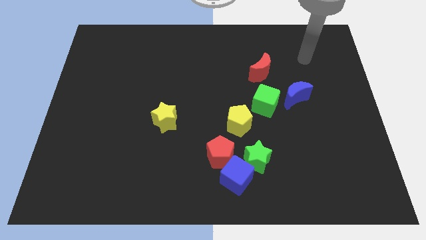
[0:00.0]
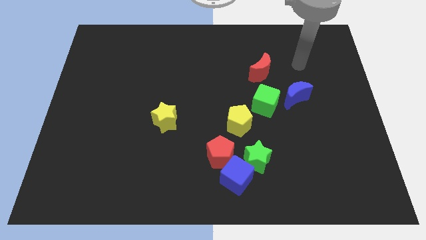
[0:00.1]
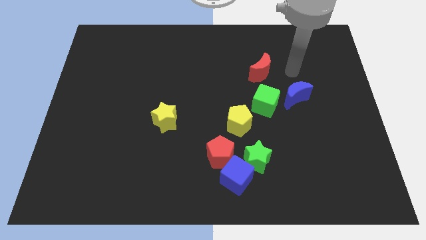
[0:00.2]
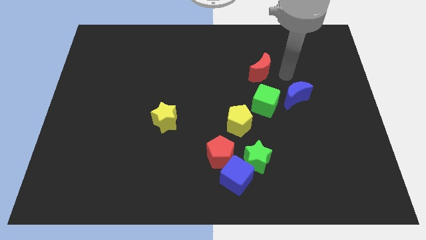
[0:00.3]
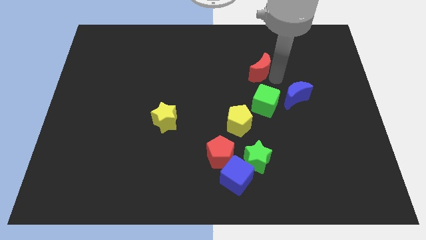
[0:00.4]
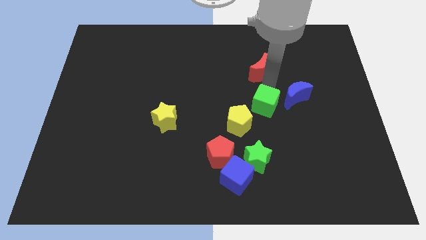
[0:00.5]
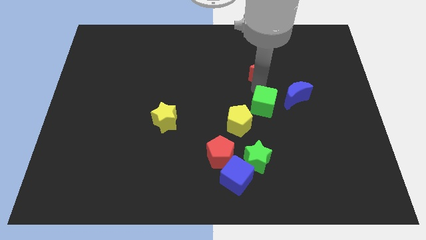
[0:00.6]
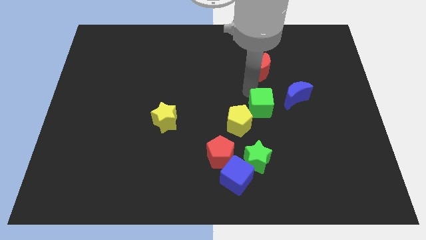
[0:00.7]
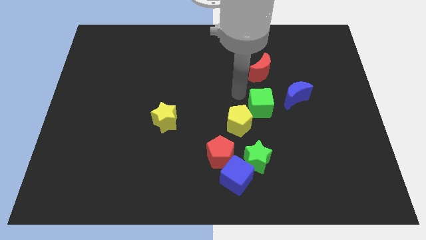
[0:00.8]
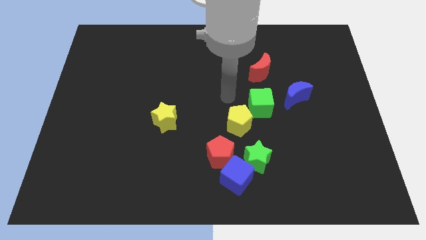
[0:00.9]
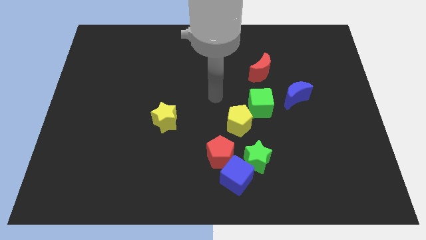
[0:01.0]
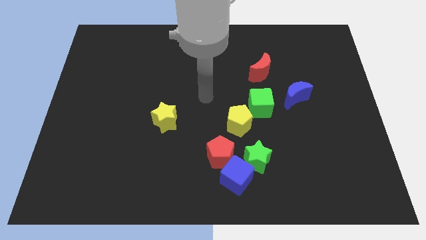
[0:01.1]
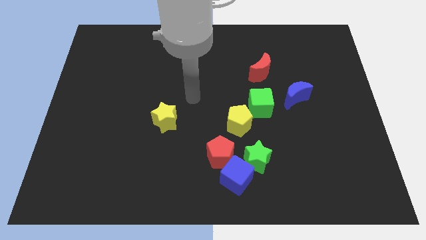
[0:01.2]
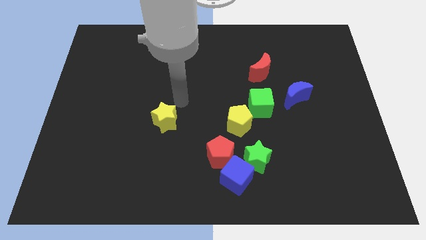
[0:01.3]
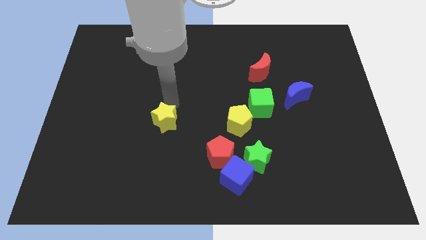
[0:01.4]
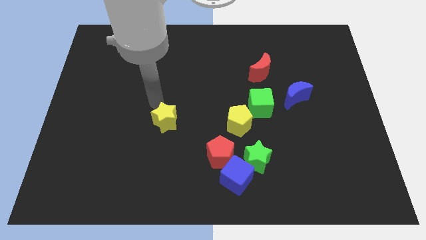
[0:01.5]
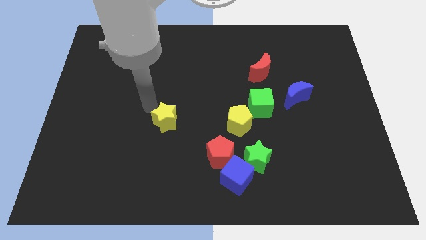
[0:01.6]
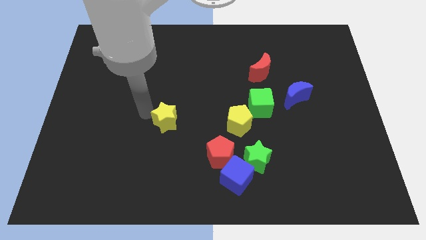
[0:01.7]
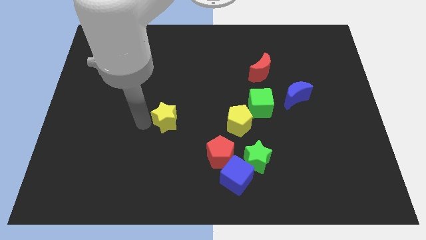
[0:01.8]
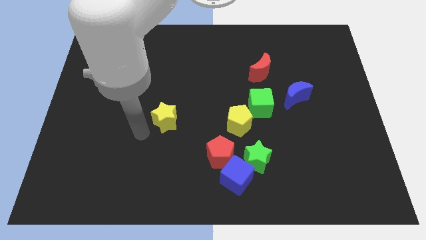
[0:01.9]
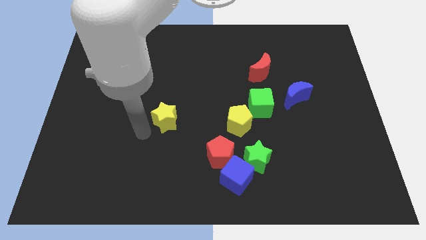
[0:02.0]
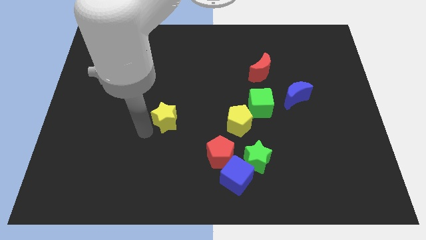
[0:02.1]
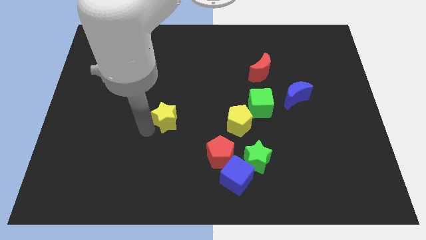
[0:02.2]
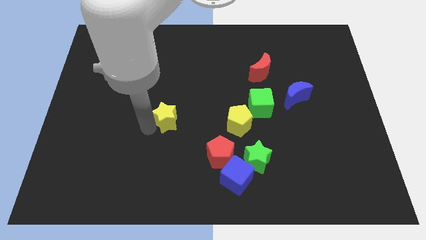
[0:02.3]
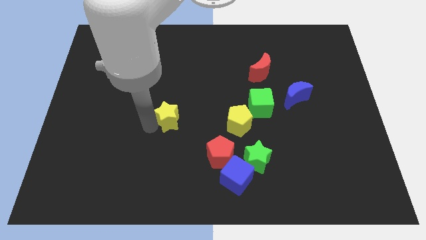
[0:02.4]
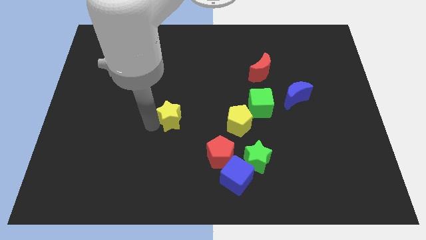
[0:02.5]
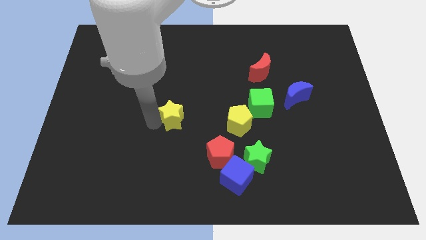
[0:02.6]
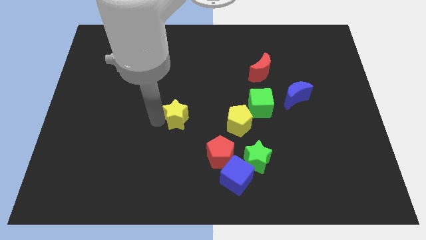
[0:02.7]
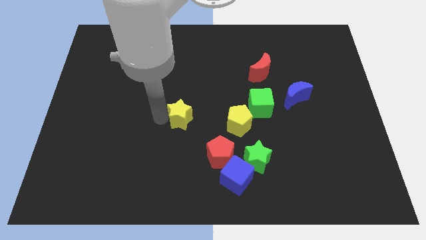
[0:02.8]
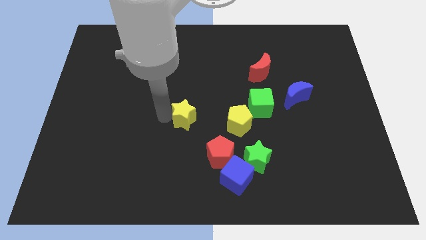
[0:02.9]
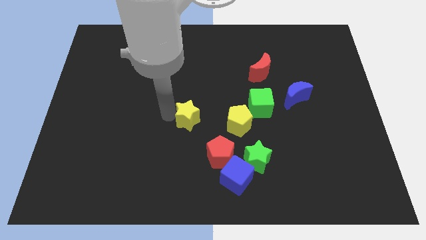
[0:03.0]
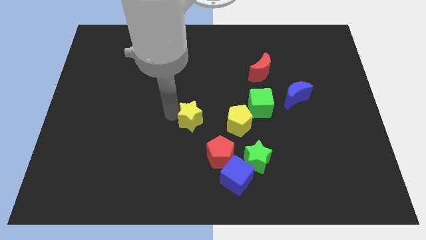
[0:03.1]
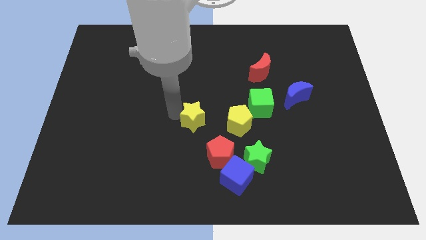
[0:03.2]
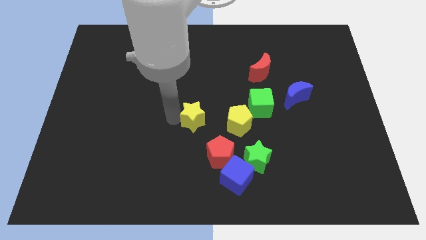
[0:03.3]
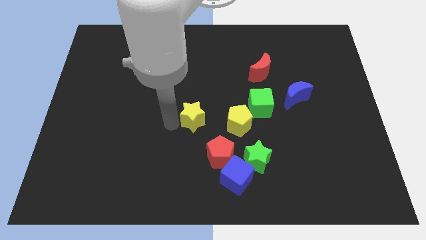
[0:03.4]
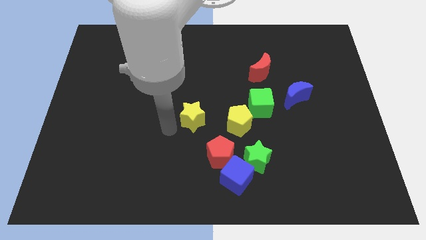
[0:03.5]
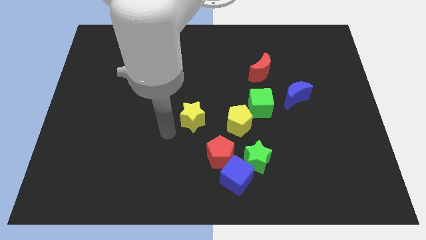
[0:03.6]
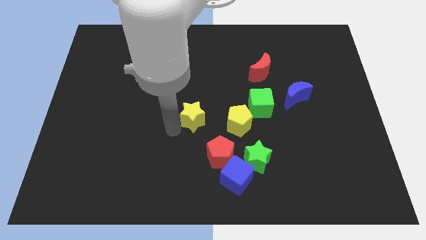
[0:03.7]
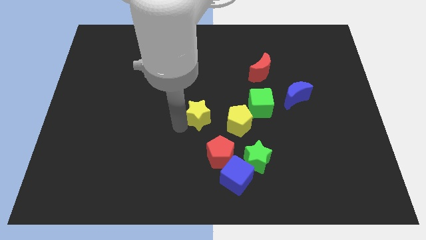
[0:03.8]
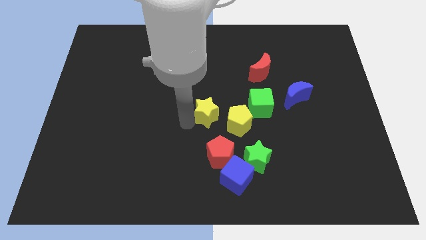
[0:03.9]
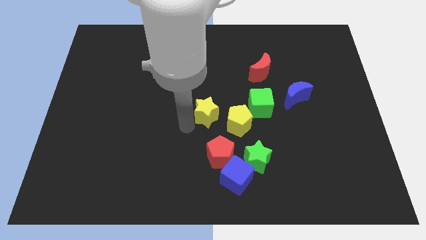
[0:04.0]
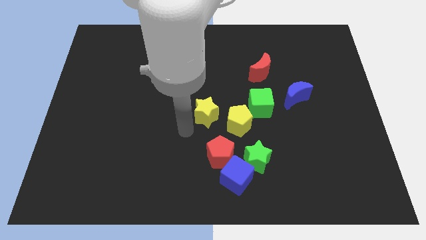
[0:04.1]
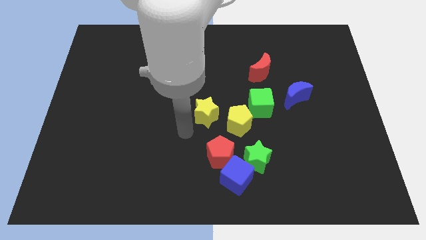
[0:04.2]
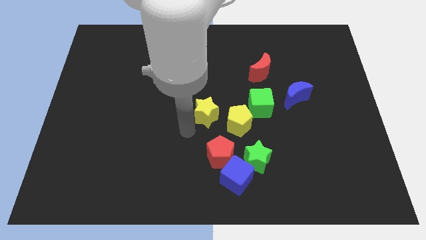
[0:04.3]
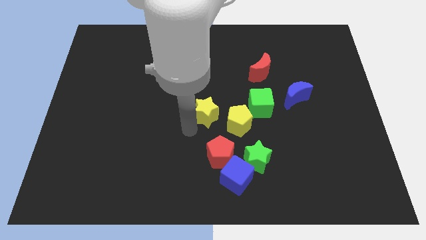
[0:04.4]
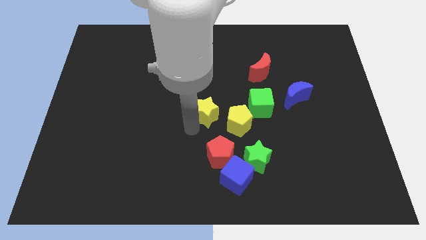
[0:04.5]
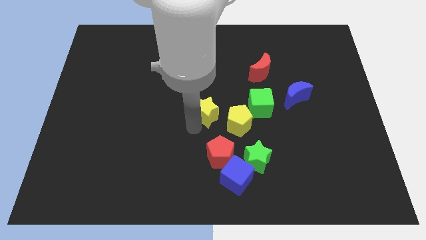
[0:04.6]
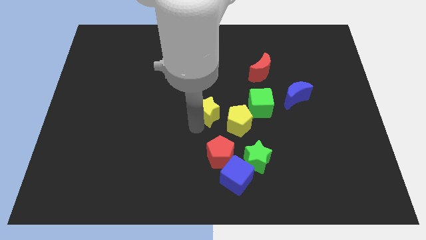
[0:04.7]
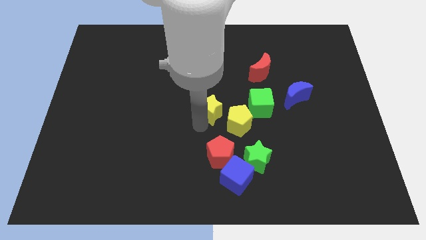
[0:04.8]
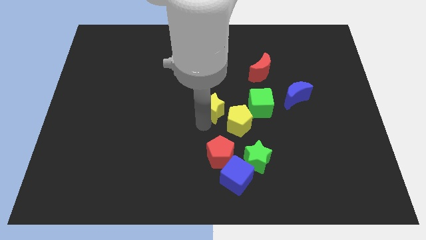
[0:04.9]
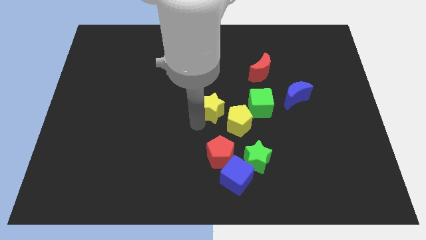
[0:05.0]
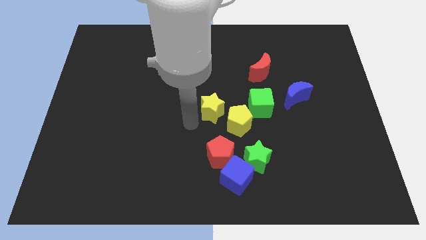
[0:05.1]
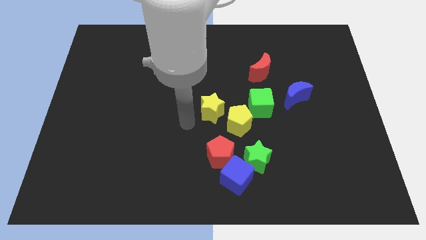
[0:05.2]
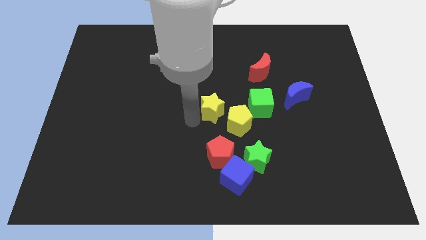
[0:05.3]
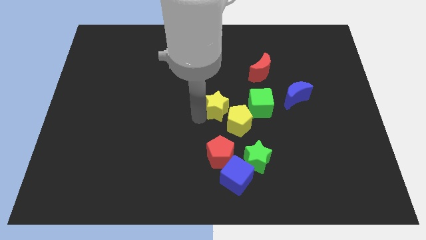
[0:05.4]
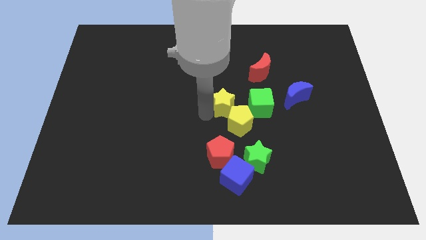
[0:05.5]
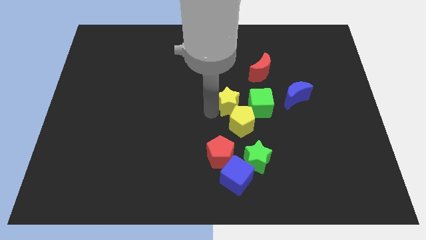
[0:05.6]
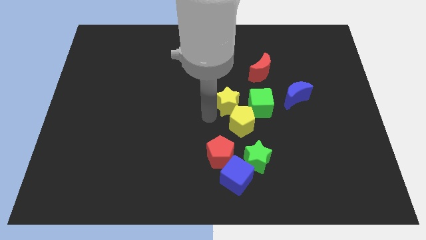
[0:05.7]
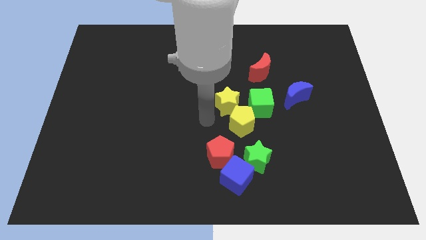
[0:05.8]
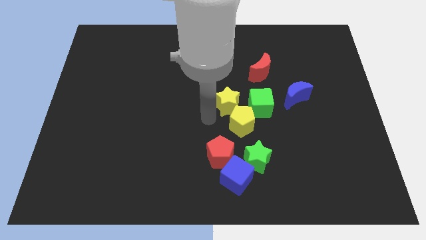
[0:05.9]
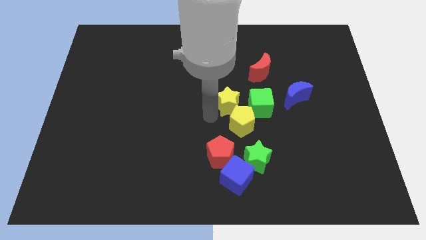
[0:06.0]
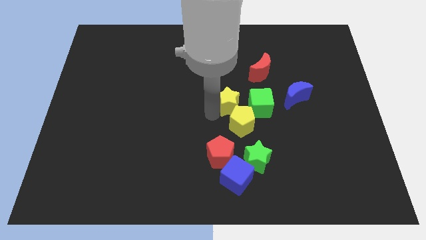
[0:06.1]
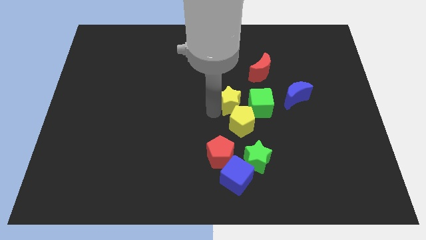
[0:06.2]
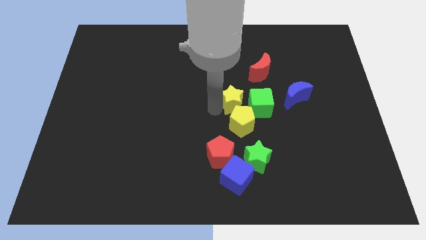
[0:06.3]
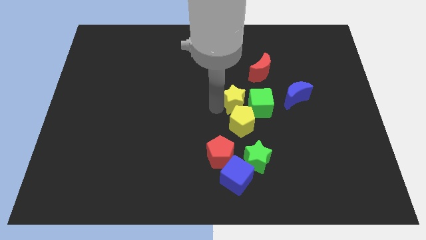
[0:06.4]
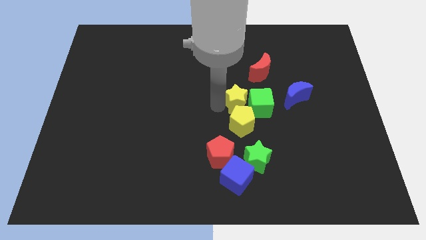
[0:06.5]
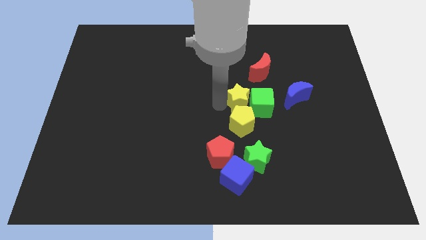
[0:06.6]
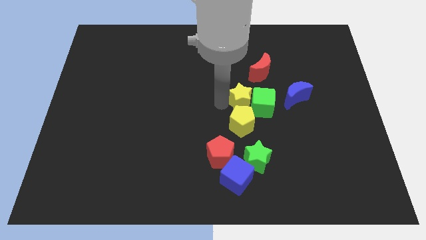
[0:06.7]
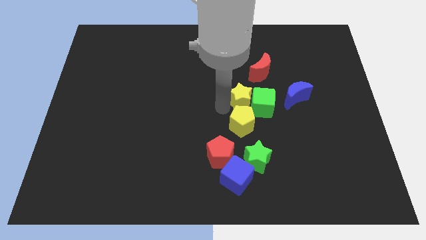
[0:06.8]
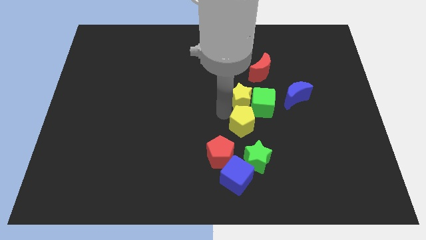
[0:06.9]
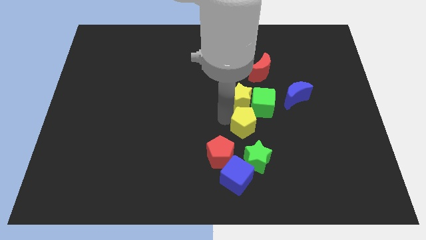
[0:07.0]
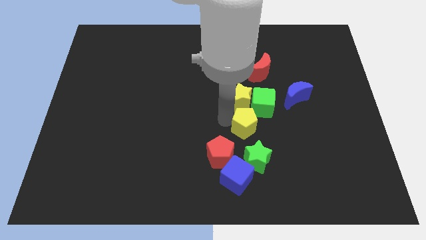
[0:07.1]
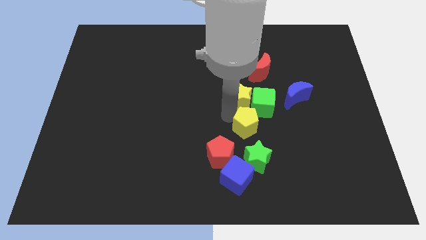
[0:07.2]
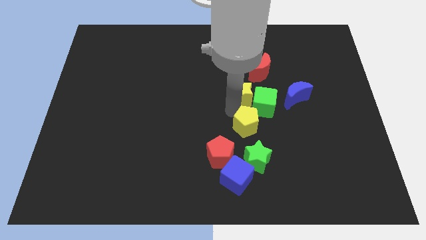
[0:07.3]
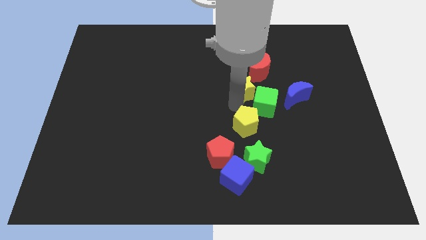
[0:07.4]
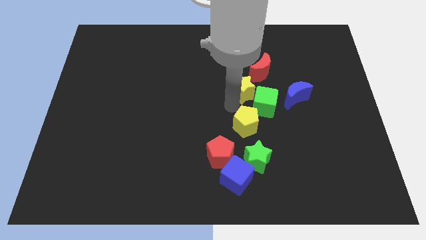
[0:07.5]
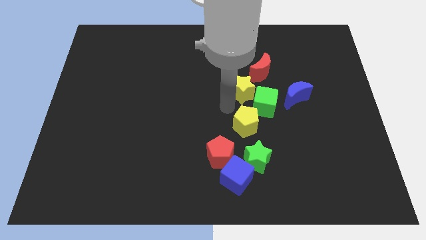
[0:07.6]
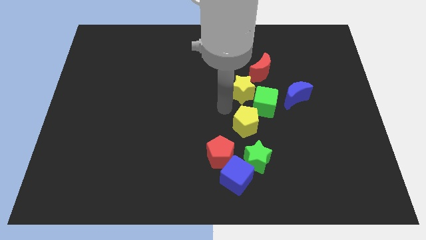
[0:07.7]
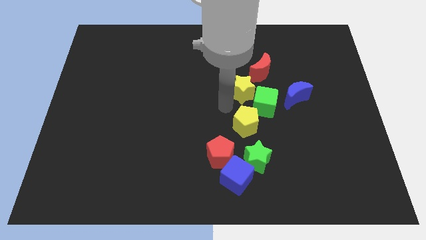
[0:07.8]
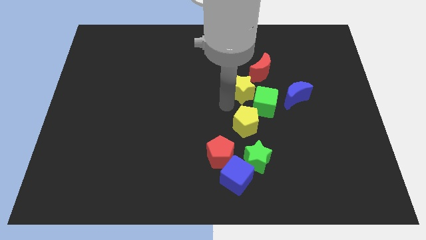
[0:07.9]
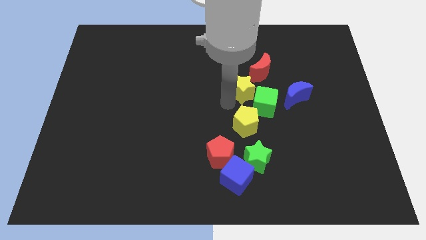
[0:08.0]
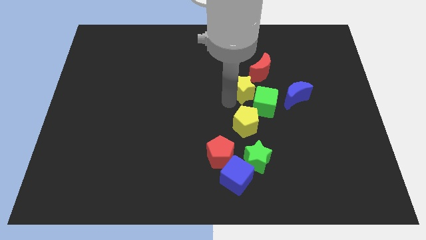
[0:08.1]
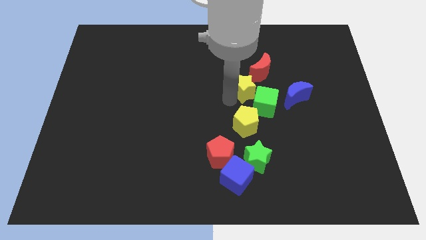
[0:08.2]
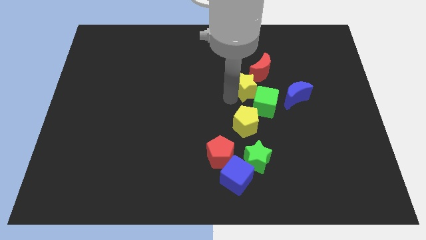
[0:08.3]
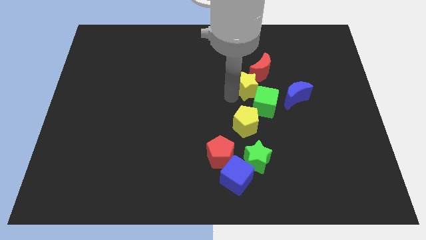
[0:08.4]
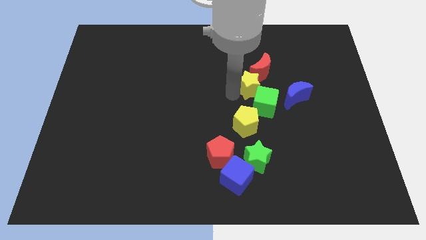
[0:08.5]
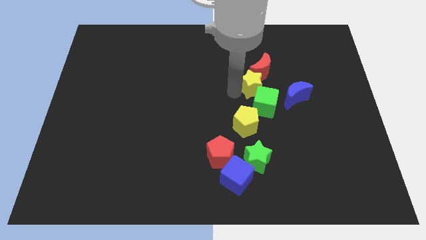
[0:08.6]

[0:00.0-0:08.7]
move the yellow star to the red moon
